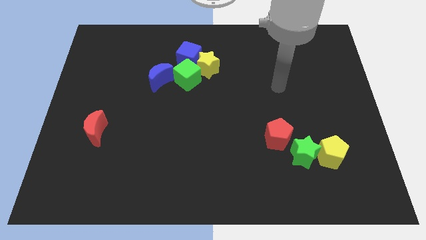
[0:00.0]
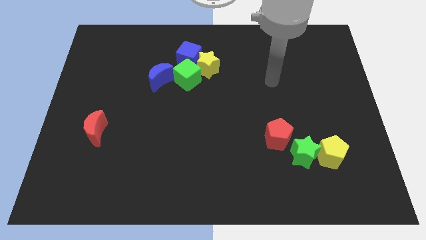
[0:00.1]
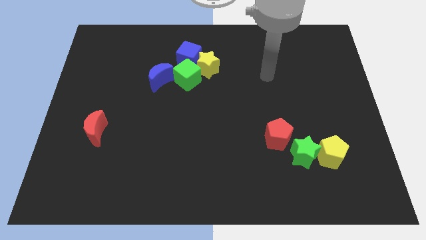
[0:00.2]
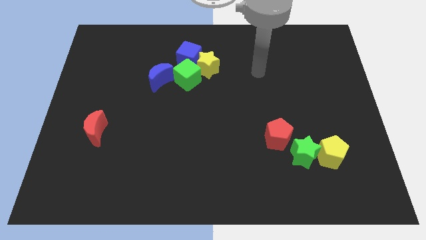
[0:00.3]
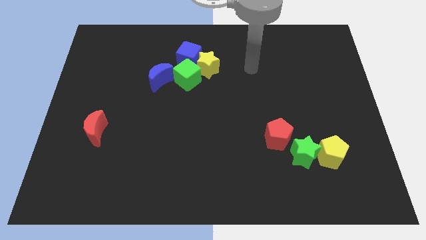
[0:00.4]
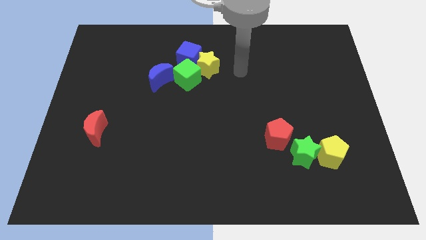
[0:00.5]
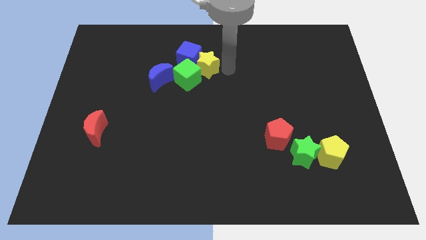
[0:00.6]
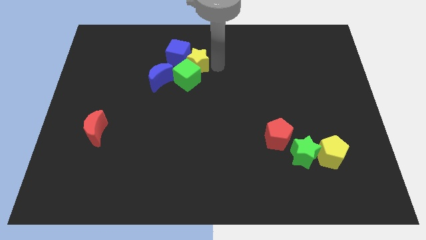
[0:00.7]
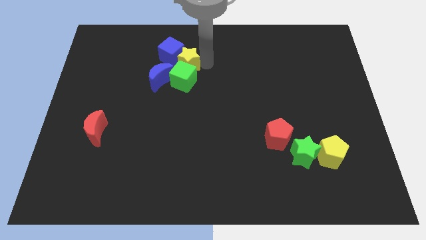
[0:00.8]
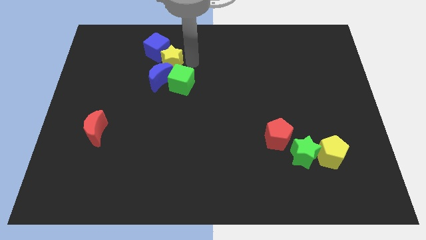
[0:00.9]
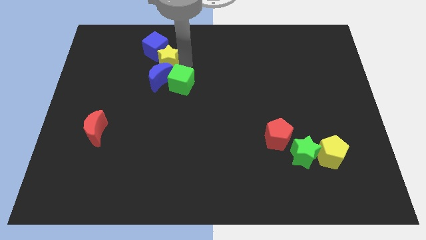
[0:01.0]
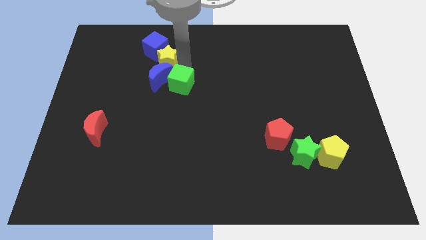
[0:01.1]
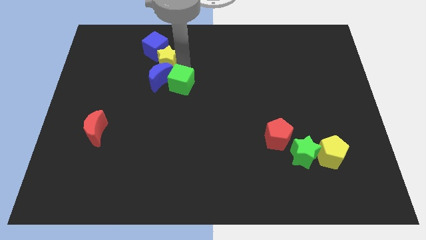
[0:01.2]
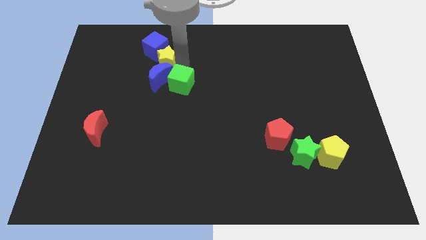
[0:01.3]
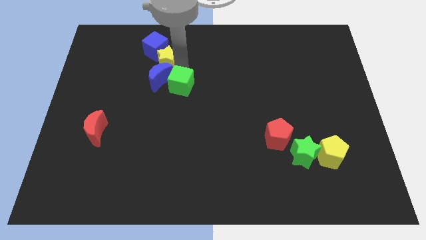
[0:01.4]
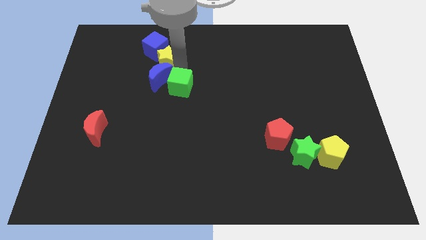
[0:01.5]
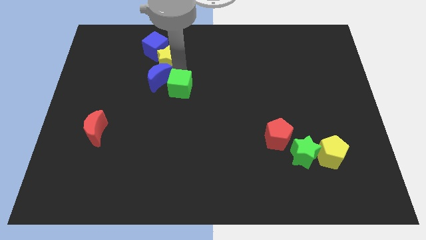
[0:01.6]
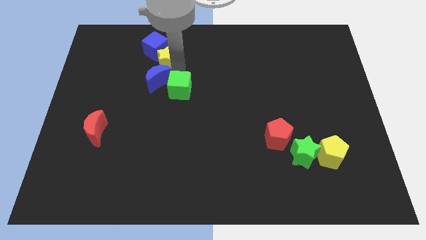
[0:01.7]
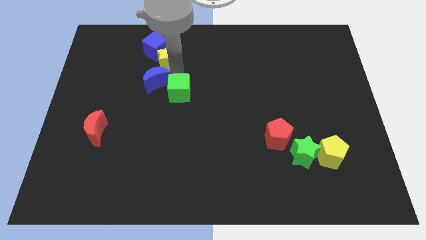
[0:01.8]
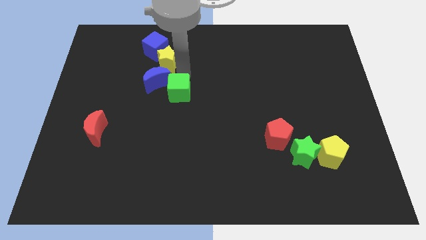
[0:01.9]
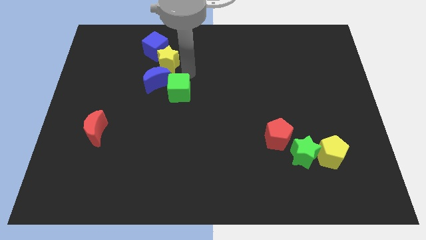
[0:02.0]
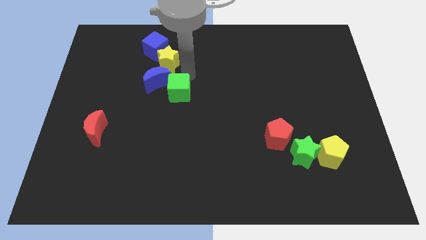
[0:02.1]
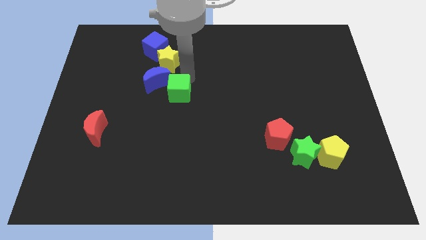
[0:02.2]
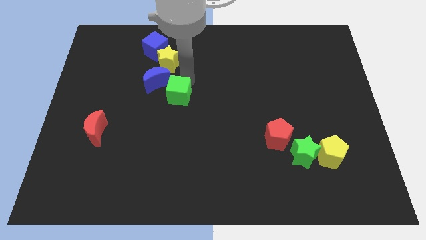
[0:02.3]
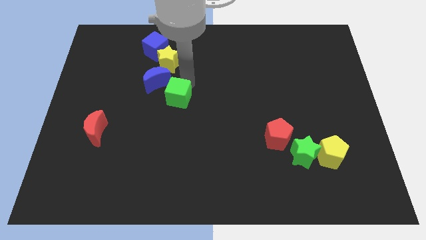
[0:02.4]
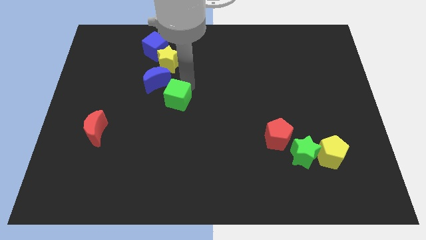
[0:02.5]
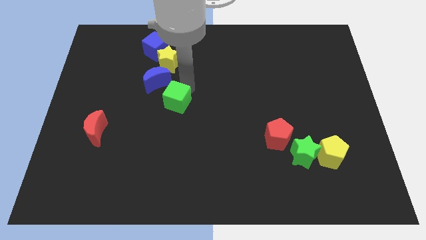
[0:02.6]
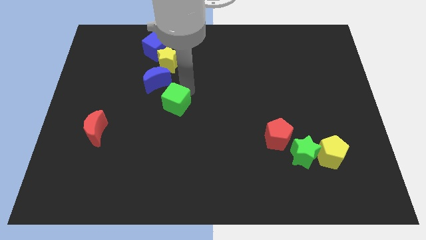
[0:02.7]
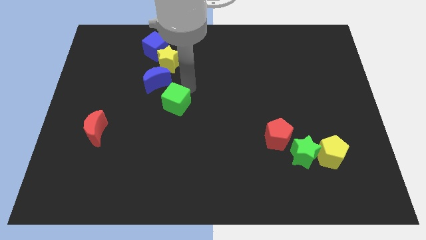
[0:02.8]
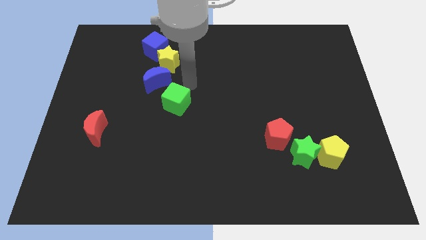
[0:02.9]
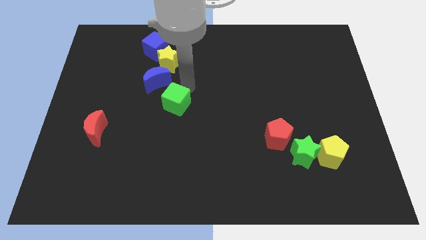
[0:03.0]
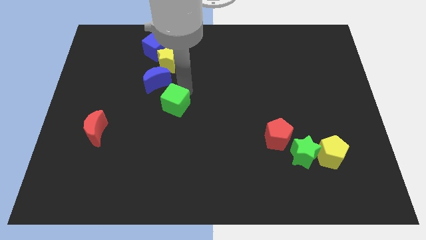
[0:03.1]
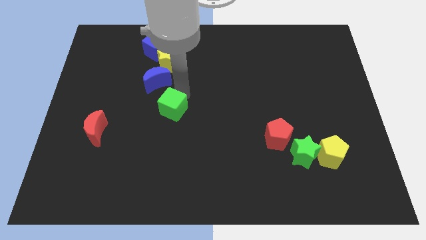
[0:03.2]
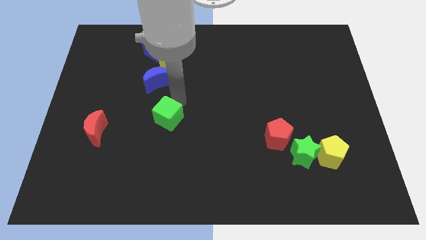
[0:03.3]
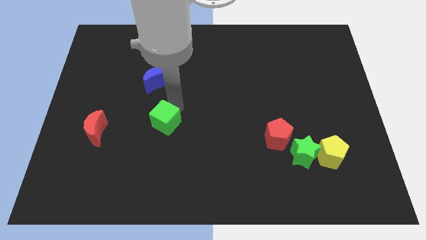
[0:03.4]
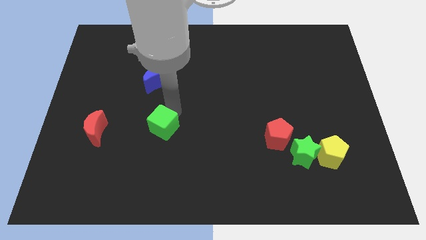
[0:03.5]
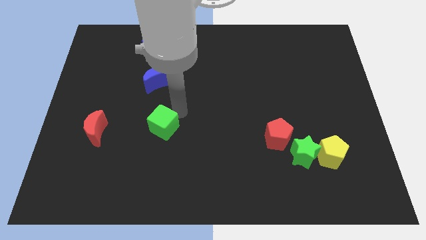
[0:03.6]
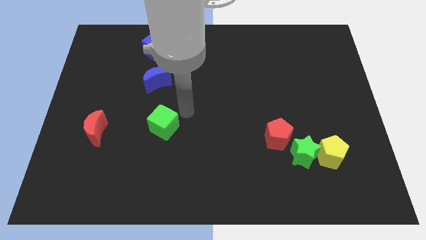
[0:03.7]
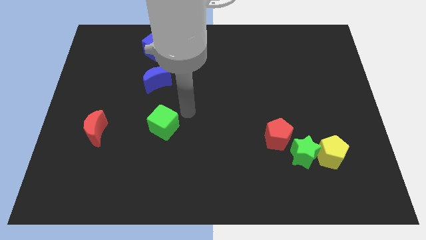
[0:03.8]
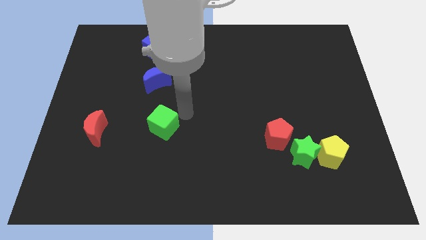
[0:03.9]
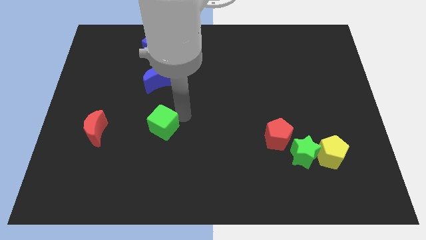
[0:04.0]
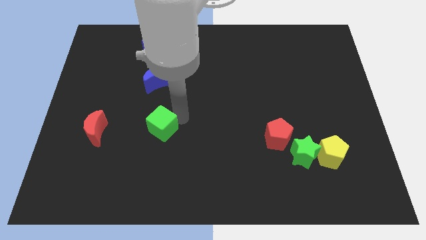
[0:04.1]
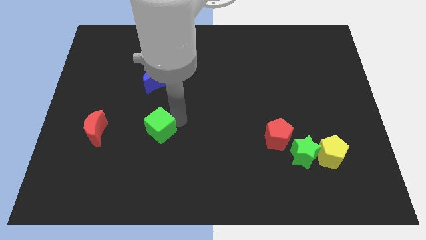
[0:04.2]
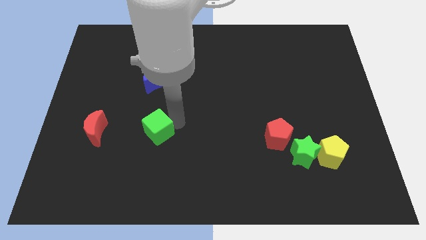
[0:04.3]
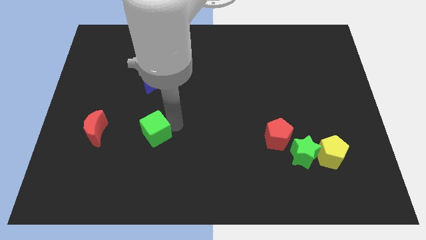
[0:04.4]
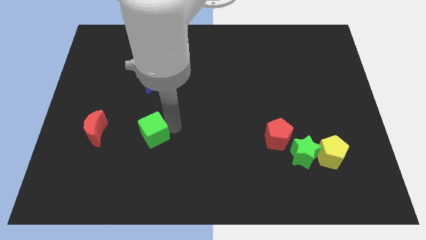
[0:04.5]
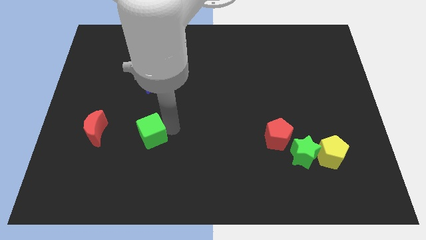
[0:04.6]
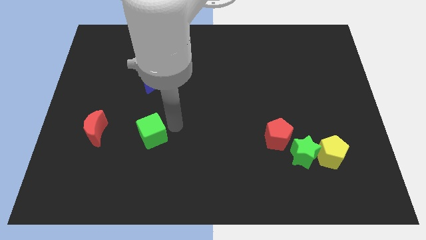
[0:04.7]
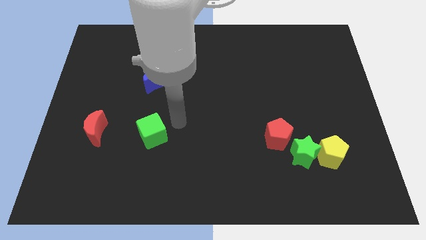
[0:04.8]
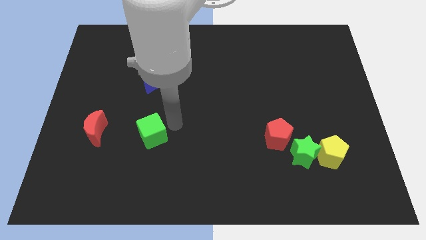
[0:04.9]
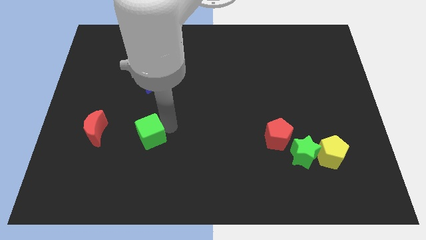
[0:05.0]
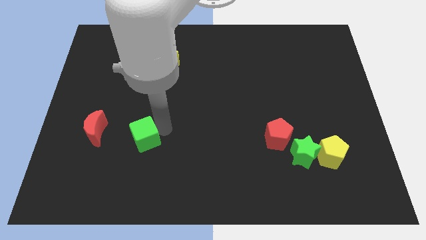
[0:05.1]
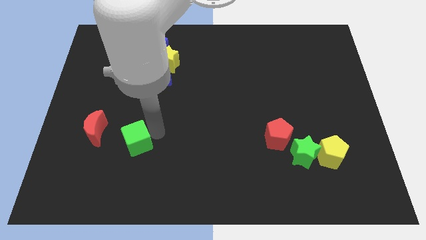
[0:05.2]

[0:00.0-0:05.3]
slide the green cube diagonally down and to the right of the red moon

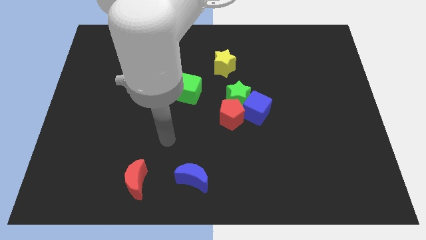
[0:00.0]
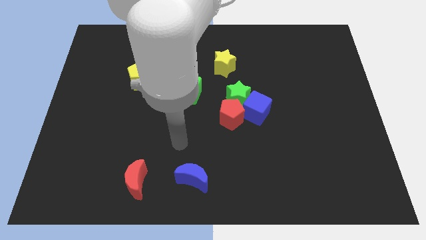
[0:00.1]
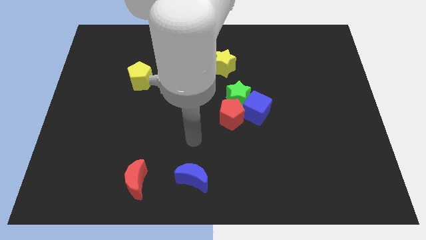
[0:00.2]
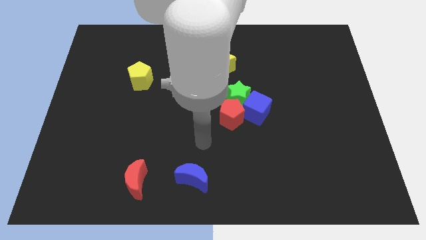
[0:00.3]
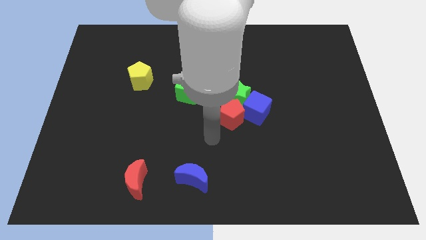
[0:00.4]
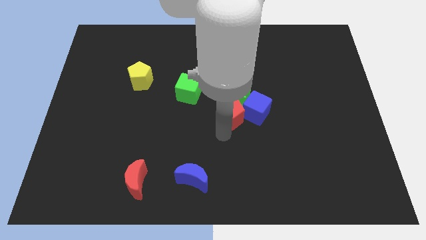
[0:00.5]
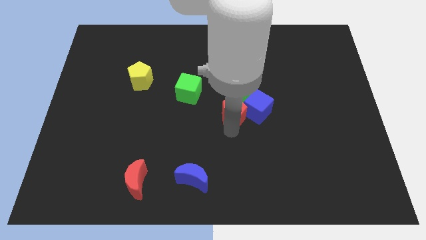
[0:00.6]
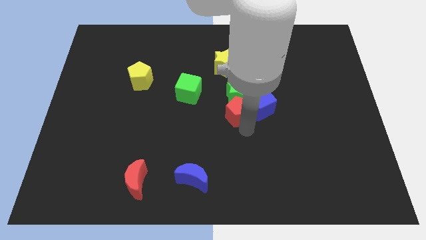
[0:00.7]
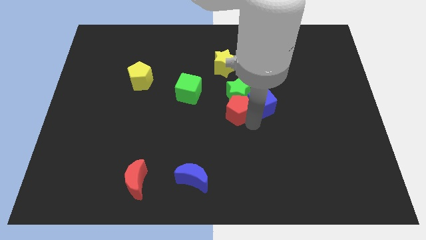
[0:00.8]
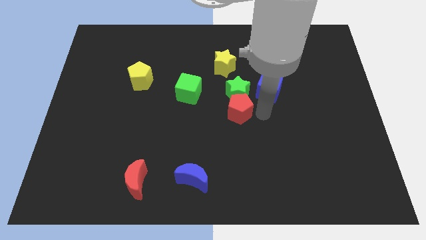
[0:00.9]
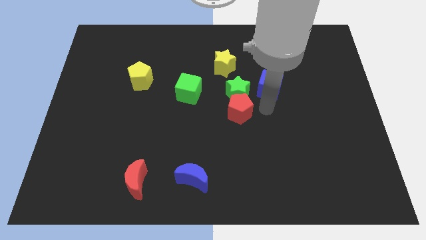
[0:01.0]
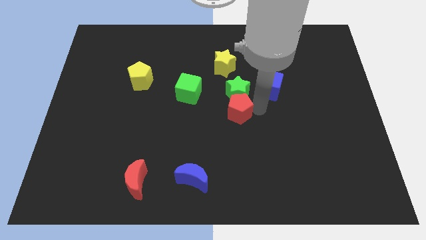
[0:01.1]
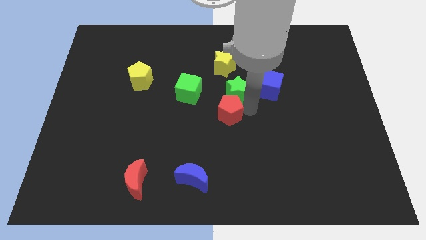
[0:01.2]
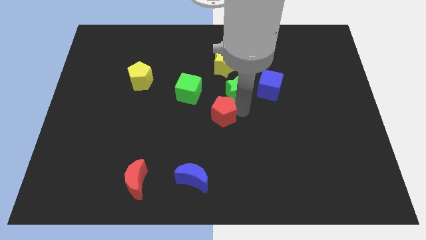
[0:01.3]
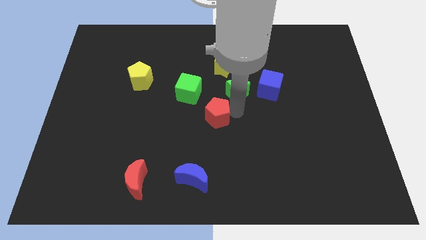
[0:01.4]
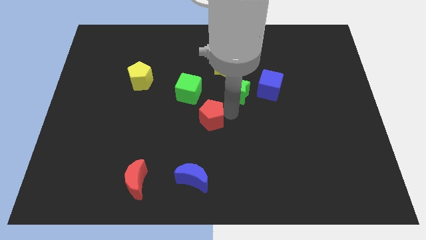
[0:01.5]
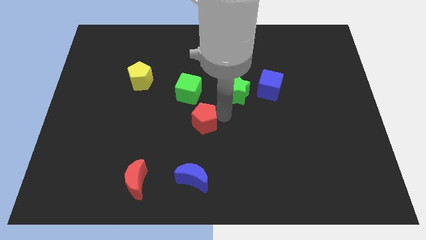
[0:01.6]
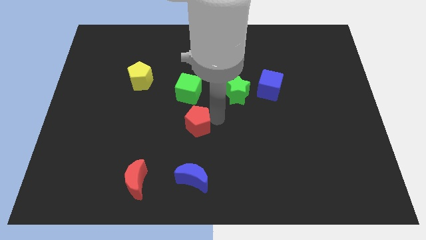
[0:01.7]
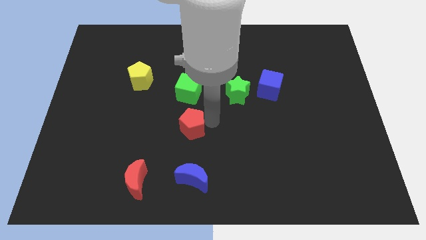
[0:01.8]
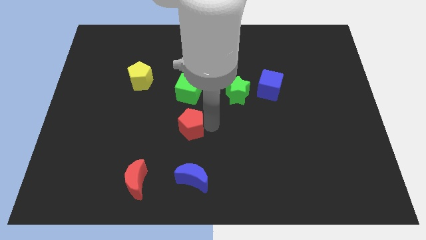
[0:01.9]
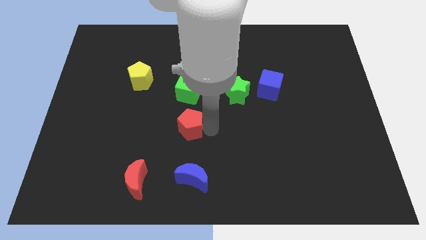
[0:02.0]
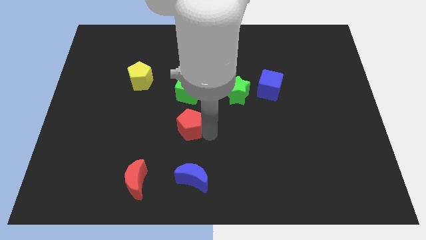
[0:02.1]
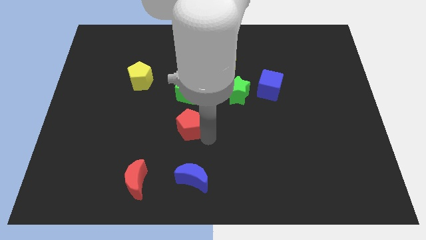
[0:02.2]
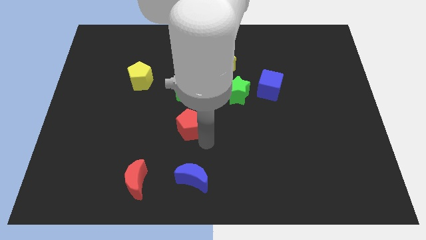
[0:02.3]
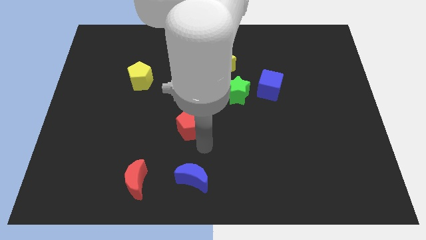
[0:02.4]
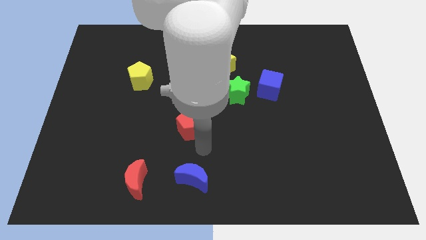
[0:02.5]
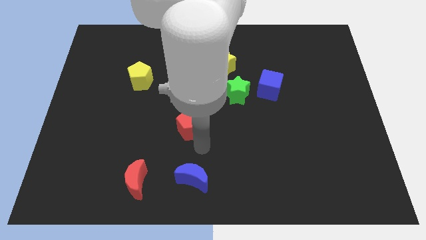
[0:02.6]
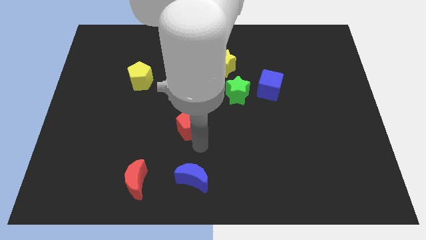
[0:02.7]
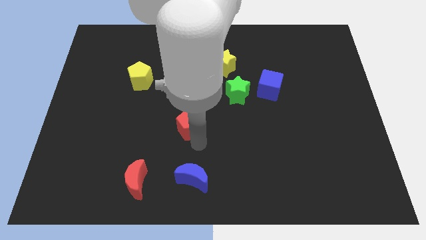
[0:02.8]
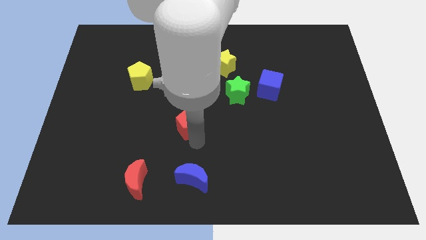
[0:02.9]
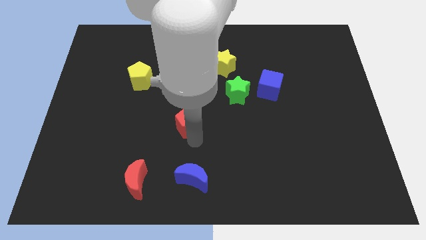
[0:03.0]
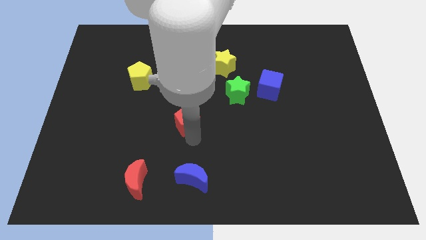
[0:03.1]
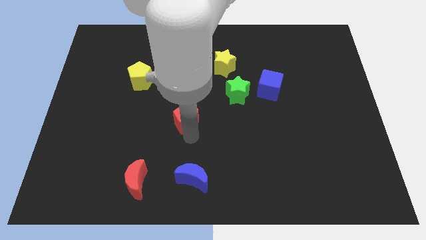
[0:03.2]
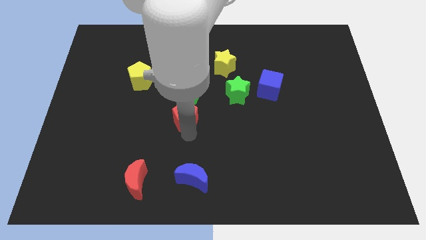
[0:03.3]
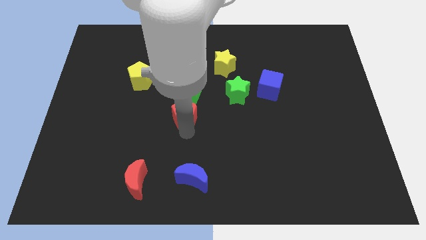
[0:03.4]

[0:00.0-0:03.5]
slide the red pentagon diagonally down and to the left of the green cube
